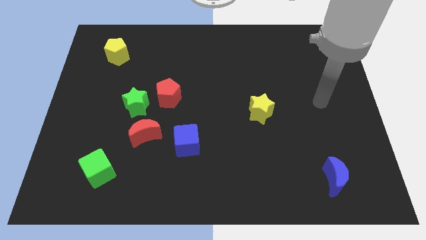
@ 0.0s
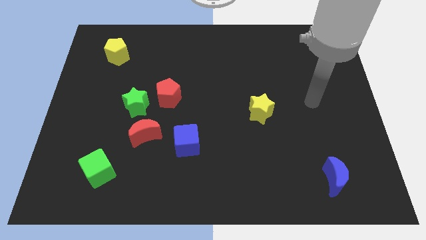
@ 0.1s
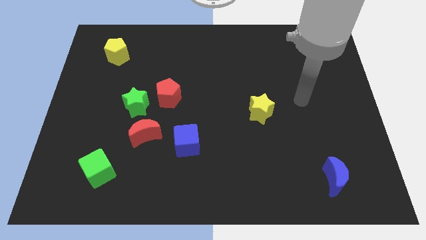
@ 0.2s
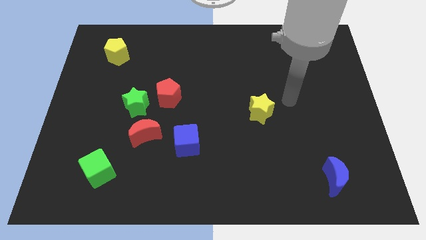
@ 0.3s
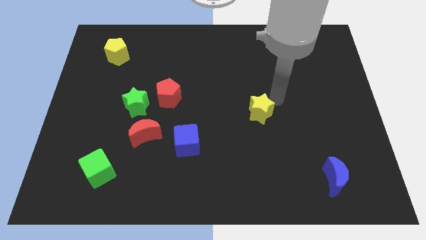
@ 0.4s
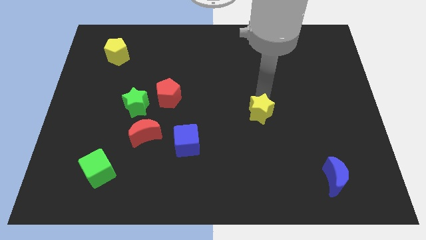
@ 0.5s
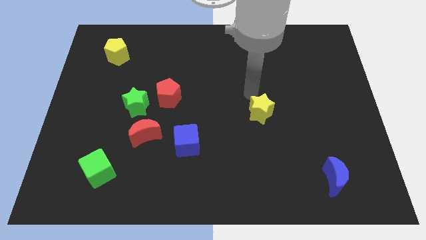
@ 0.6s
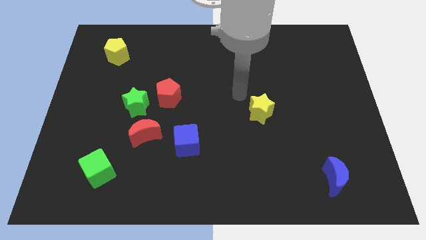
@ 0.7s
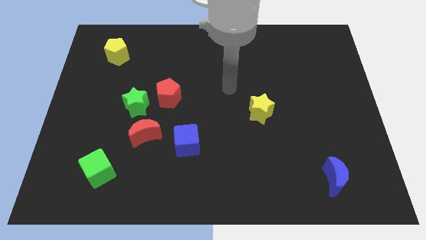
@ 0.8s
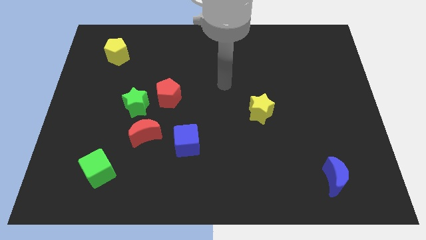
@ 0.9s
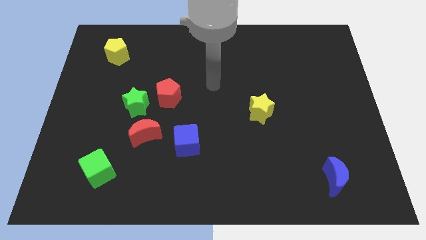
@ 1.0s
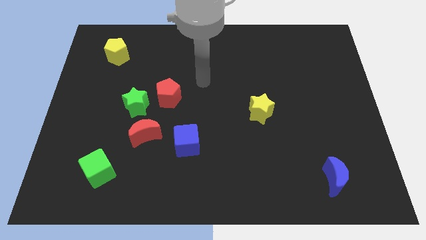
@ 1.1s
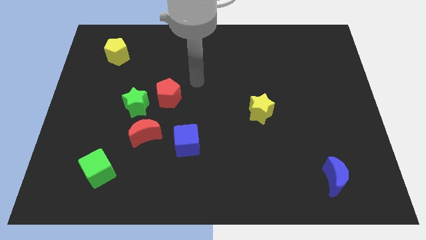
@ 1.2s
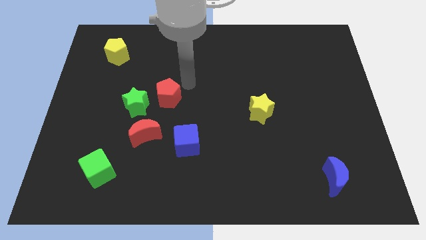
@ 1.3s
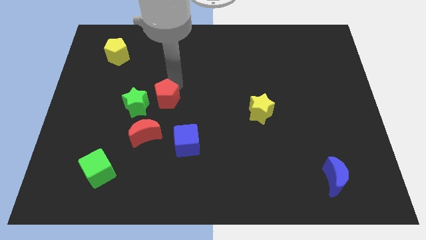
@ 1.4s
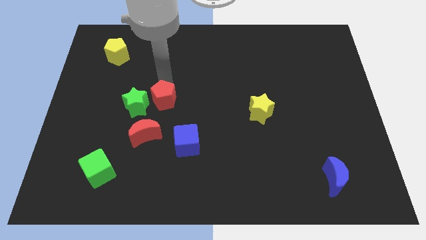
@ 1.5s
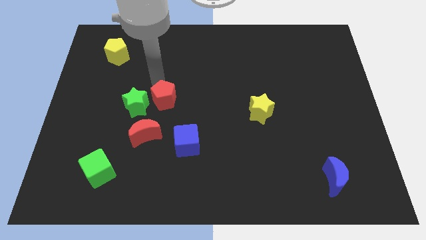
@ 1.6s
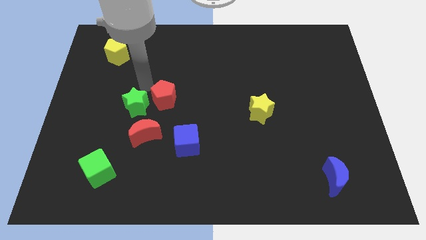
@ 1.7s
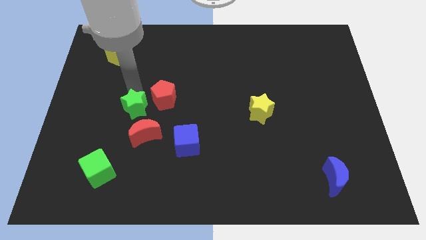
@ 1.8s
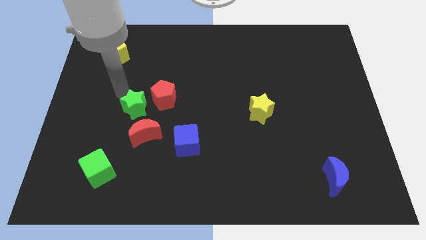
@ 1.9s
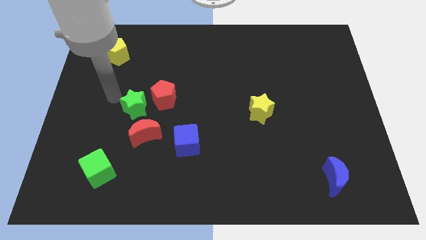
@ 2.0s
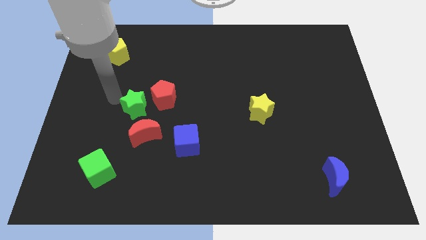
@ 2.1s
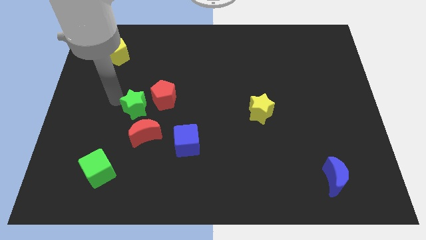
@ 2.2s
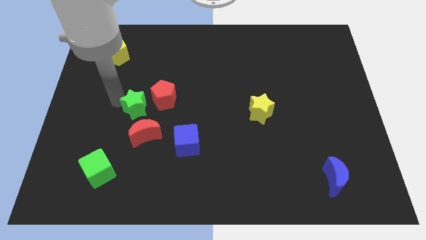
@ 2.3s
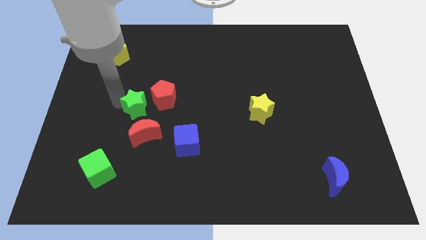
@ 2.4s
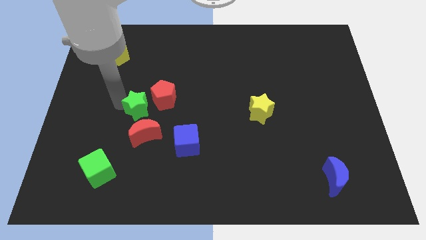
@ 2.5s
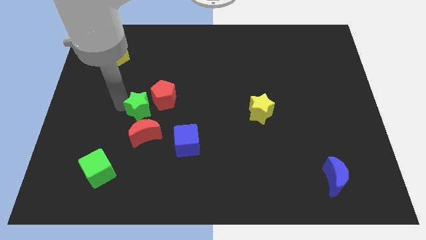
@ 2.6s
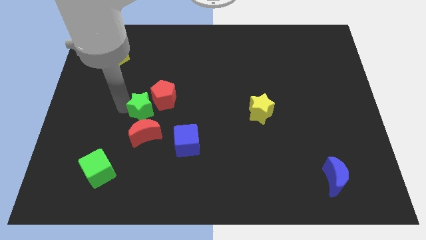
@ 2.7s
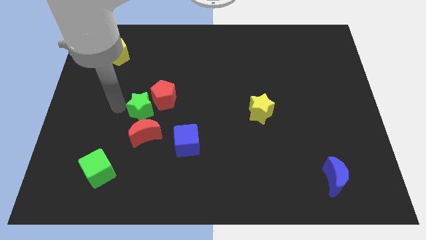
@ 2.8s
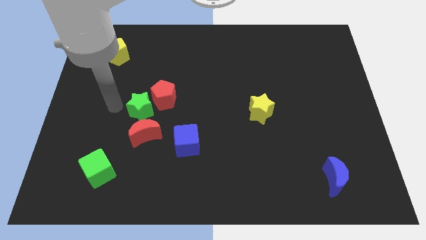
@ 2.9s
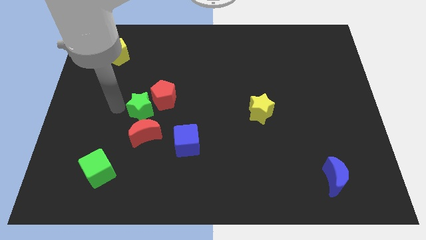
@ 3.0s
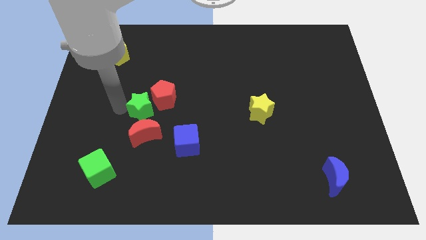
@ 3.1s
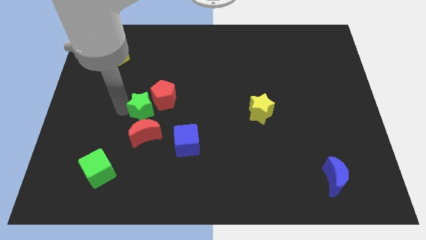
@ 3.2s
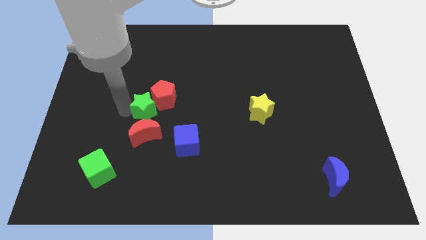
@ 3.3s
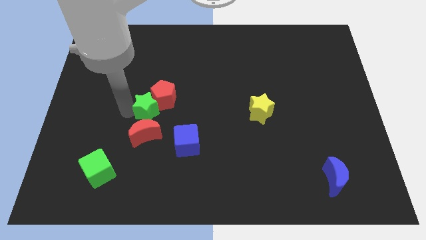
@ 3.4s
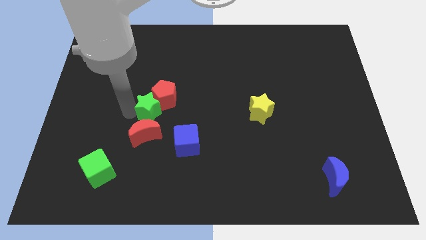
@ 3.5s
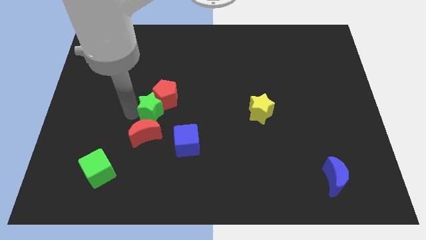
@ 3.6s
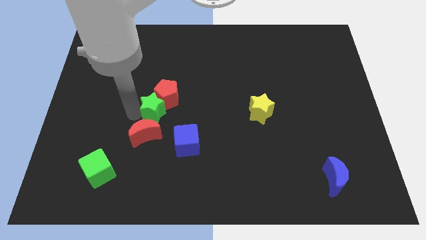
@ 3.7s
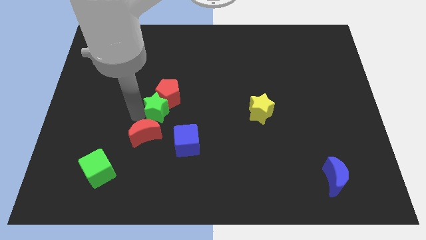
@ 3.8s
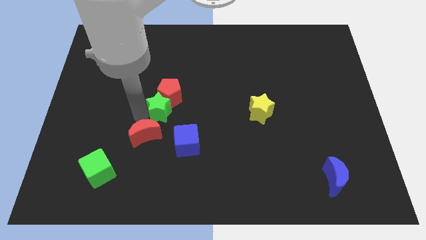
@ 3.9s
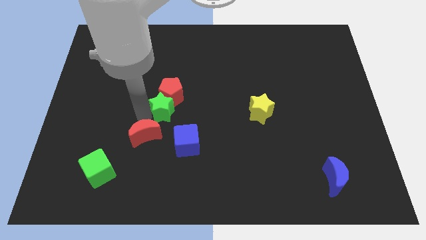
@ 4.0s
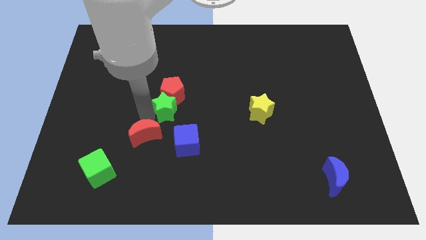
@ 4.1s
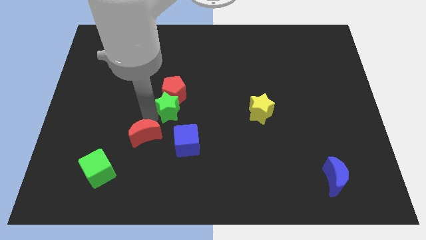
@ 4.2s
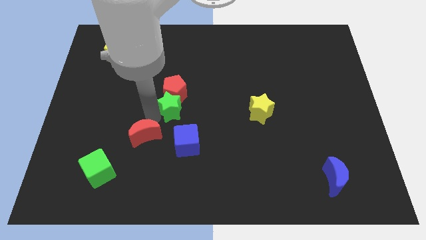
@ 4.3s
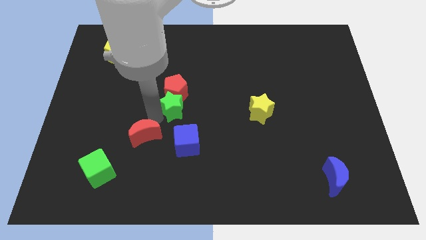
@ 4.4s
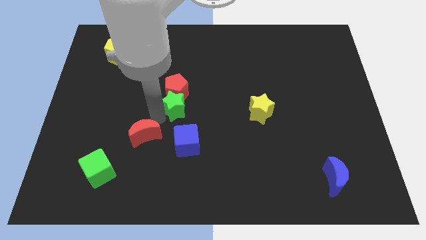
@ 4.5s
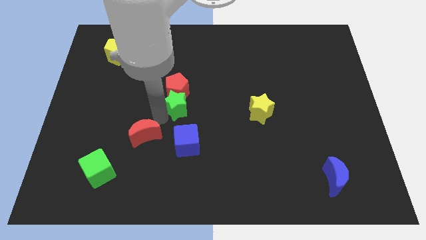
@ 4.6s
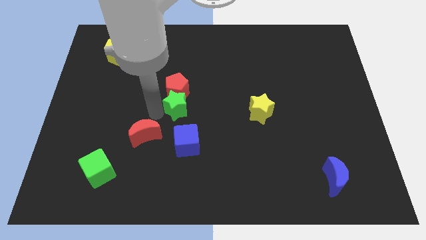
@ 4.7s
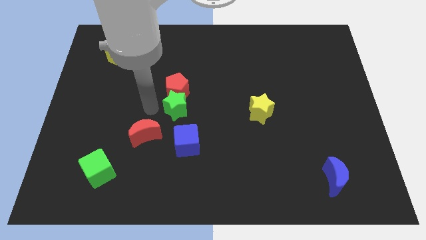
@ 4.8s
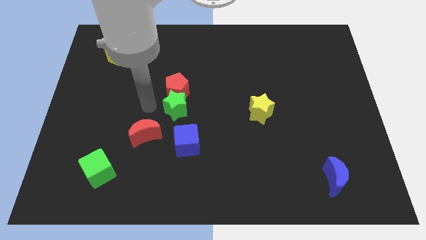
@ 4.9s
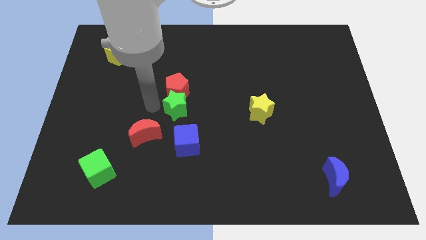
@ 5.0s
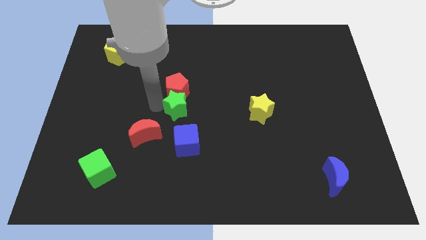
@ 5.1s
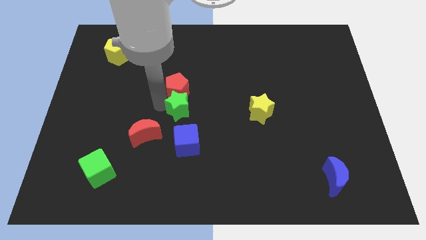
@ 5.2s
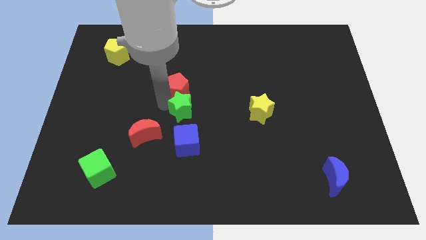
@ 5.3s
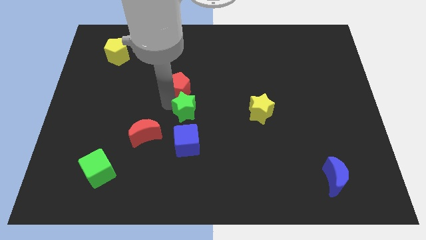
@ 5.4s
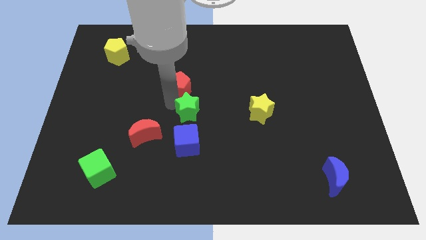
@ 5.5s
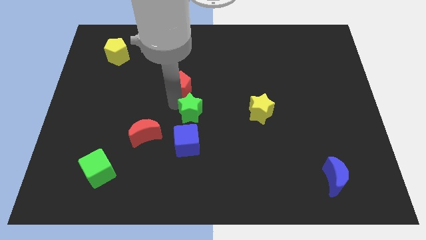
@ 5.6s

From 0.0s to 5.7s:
put the green star to the left of the yellow star
